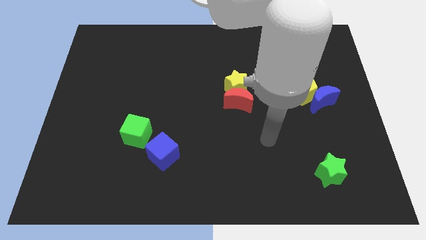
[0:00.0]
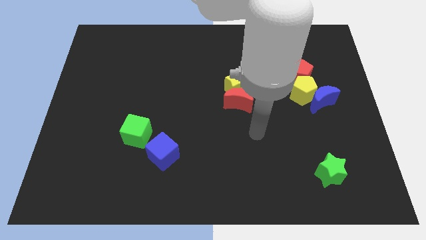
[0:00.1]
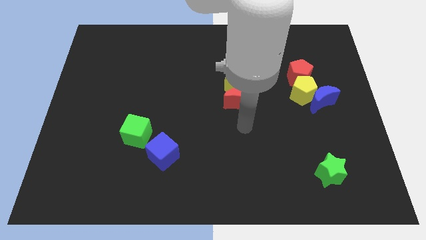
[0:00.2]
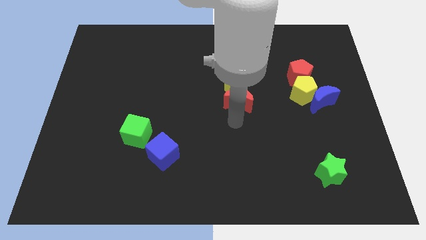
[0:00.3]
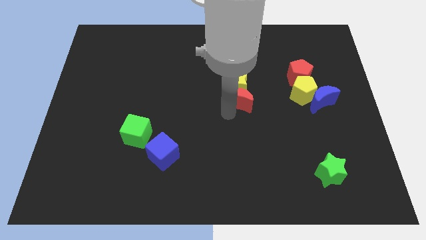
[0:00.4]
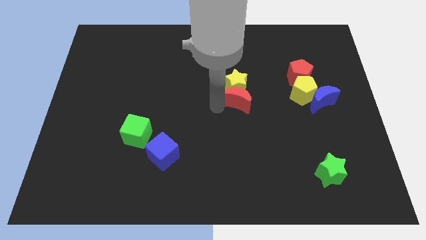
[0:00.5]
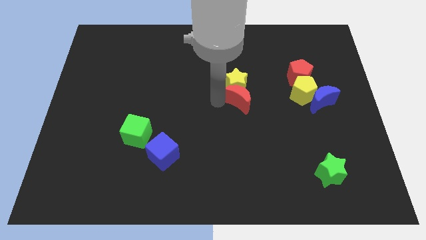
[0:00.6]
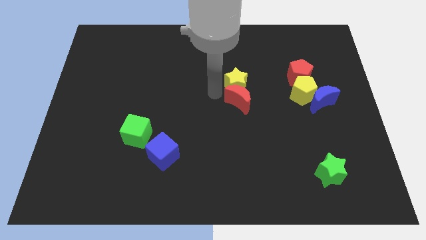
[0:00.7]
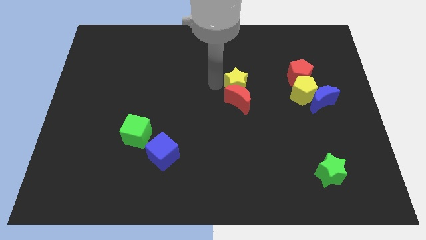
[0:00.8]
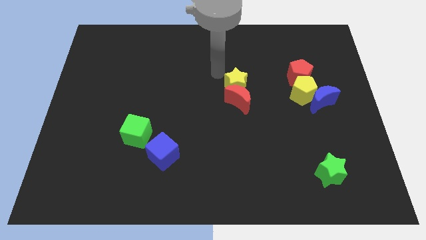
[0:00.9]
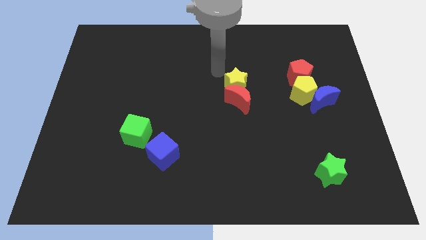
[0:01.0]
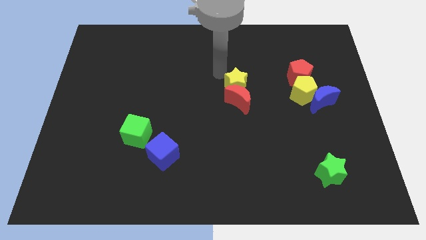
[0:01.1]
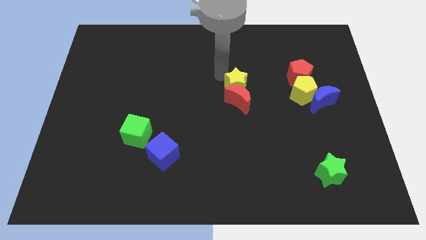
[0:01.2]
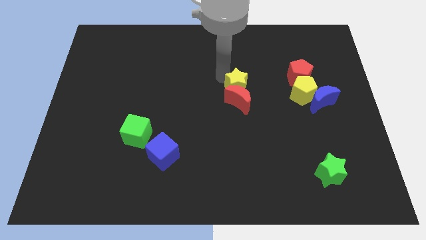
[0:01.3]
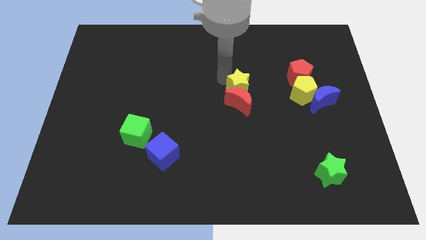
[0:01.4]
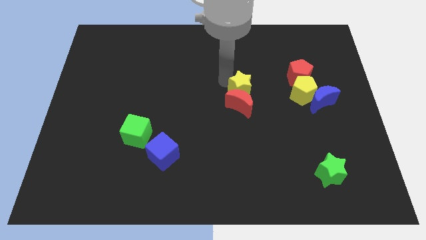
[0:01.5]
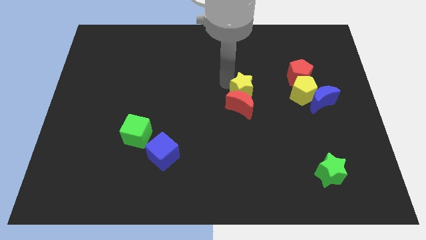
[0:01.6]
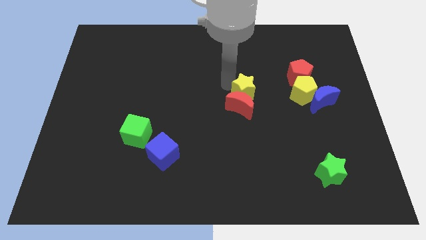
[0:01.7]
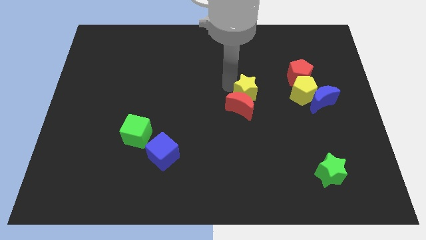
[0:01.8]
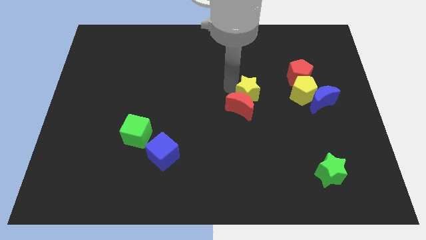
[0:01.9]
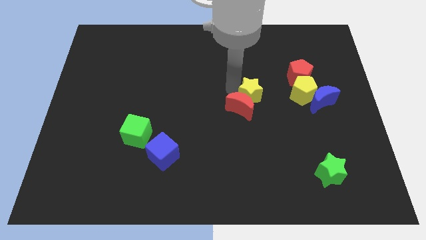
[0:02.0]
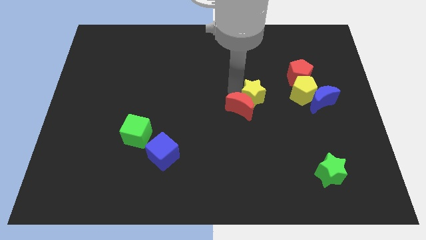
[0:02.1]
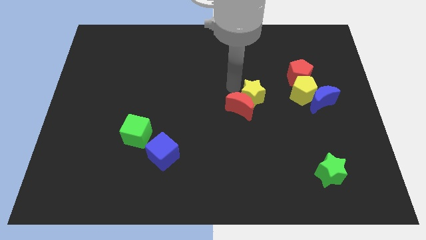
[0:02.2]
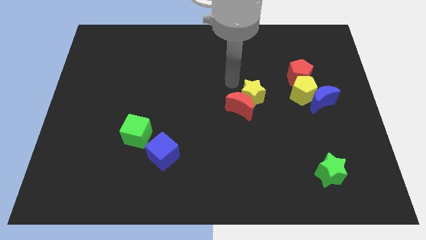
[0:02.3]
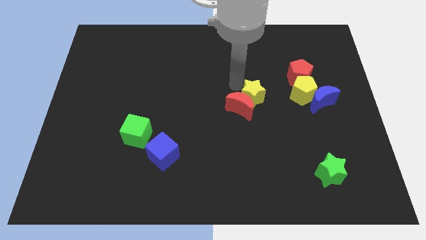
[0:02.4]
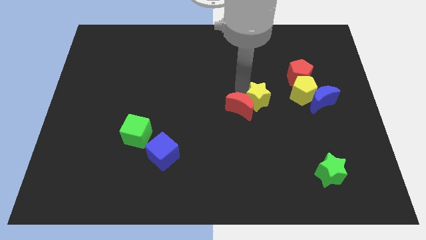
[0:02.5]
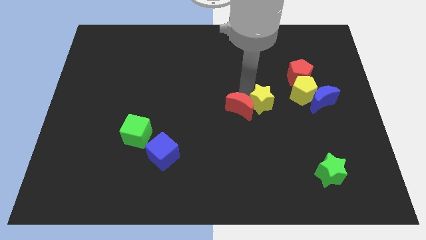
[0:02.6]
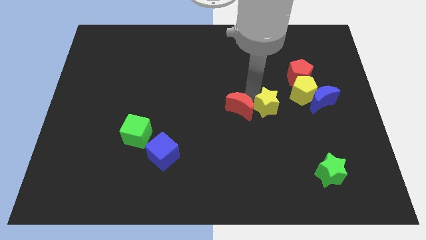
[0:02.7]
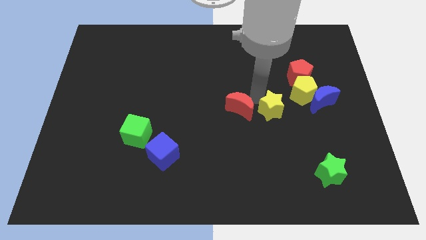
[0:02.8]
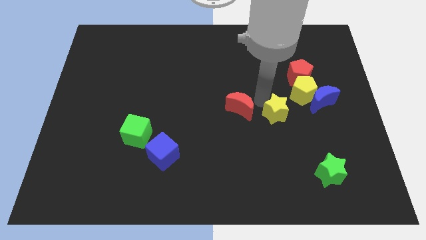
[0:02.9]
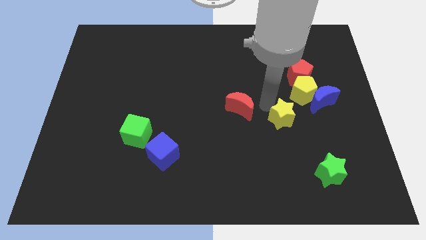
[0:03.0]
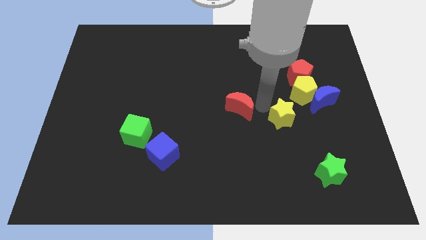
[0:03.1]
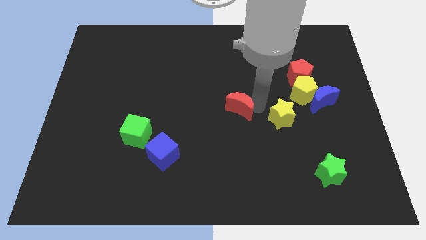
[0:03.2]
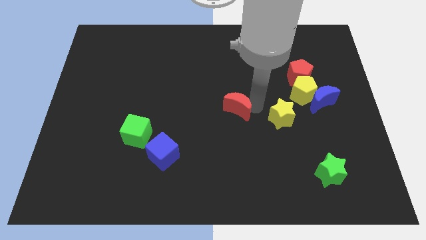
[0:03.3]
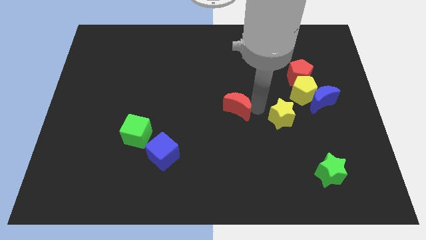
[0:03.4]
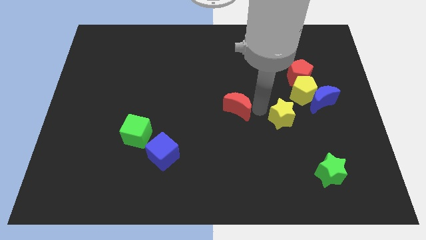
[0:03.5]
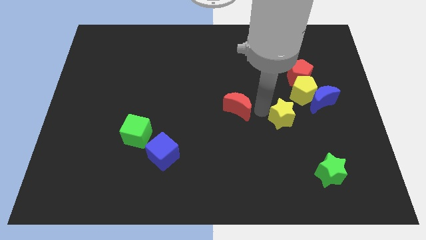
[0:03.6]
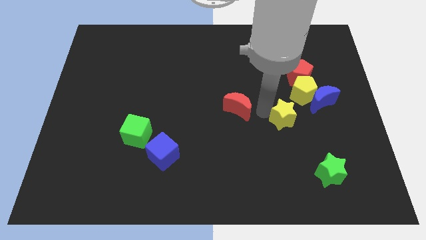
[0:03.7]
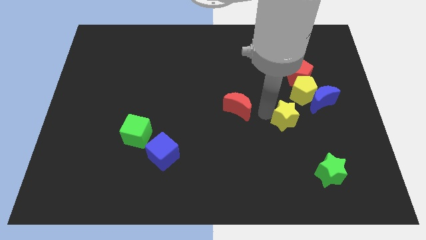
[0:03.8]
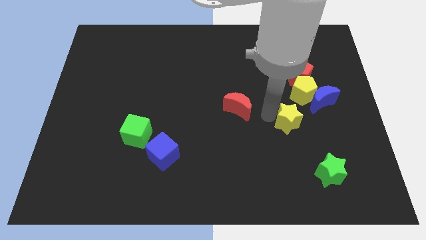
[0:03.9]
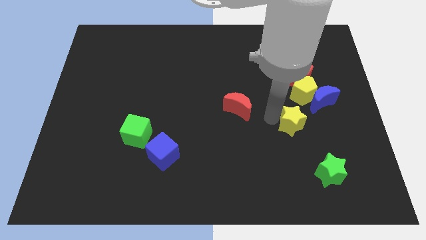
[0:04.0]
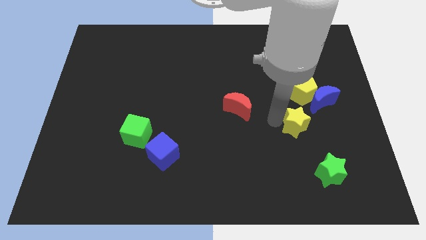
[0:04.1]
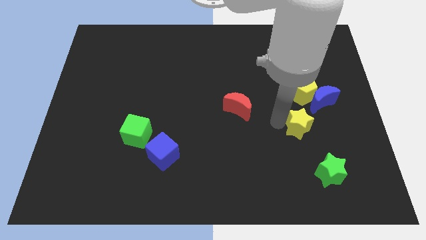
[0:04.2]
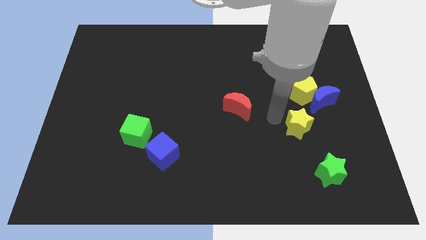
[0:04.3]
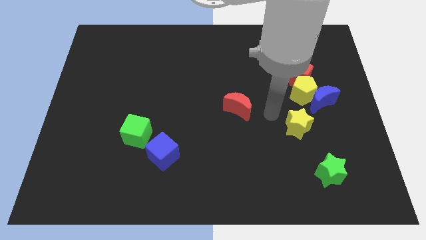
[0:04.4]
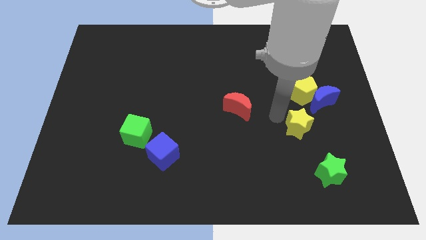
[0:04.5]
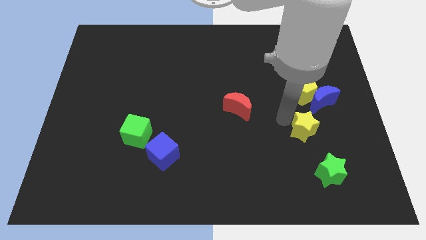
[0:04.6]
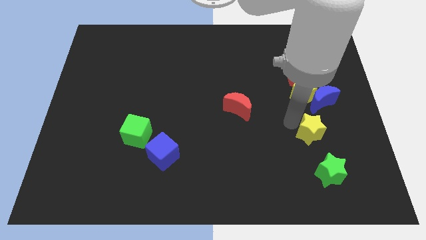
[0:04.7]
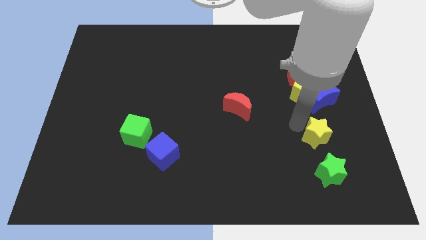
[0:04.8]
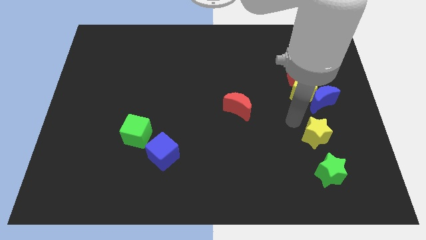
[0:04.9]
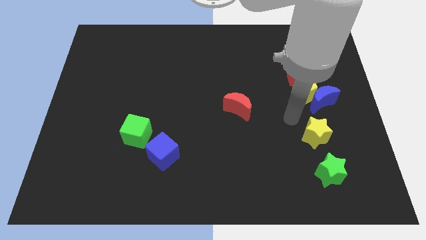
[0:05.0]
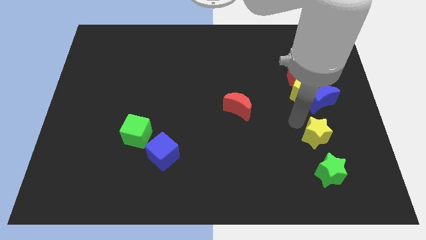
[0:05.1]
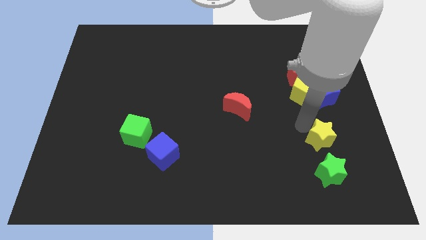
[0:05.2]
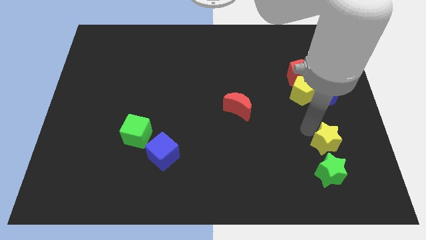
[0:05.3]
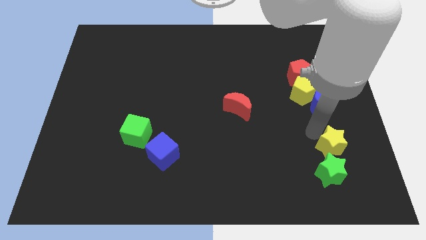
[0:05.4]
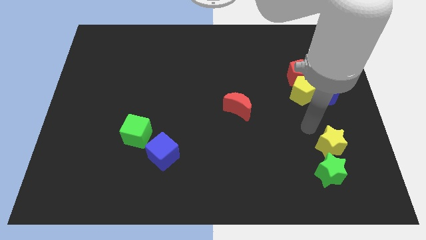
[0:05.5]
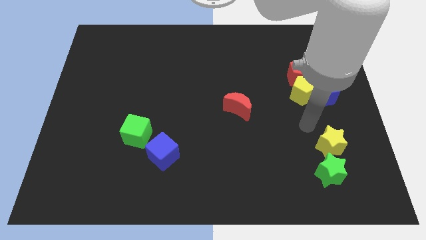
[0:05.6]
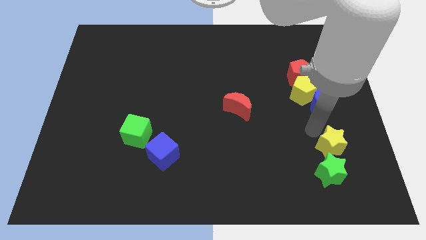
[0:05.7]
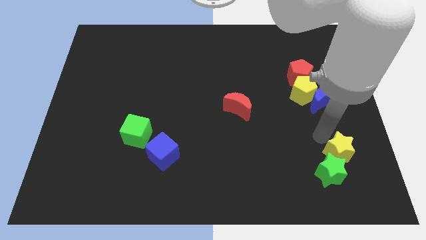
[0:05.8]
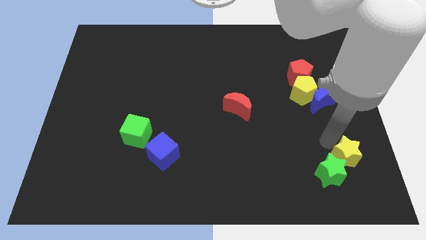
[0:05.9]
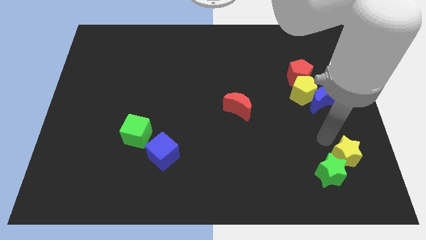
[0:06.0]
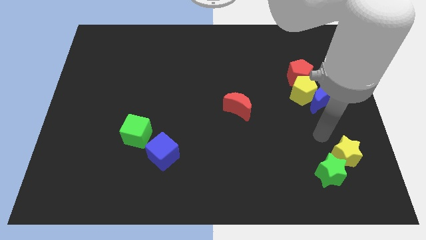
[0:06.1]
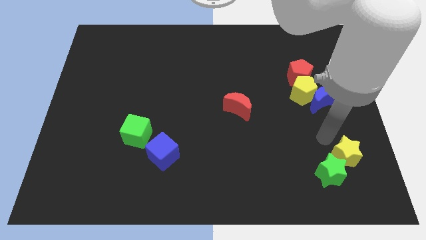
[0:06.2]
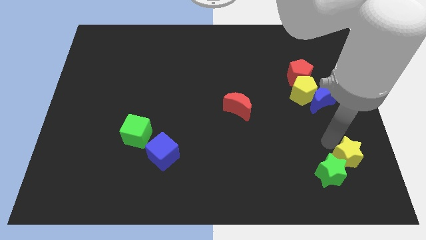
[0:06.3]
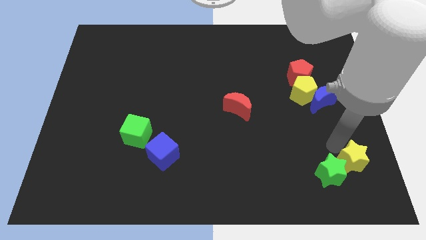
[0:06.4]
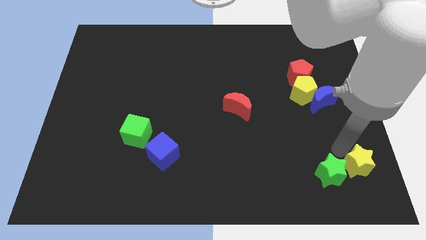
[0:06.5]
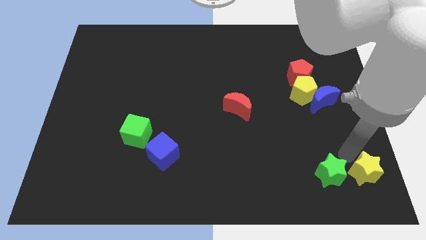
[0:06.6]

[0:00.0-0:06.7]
slide the yellow star to the lower right corner

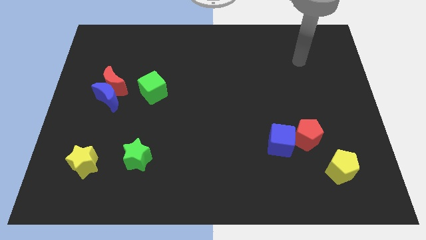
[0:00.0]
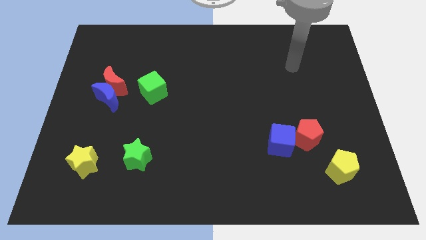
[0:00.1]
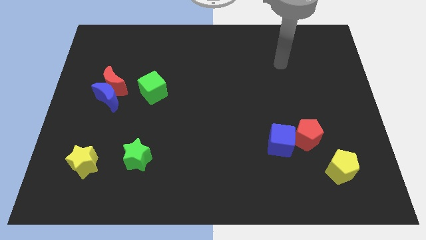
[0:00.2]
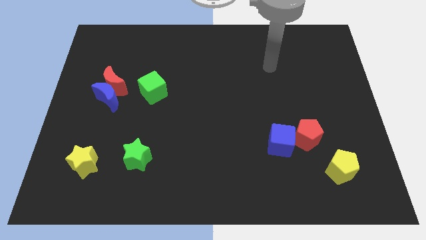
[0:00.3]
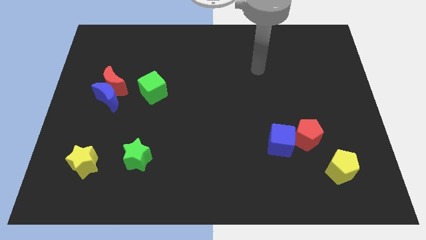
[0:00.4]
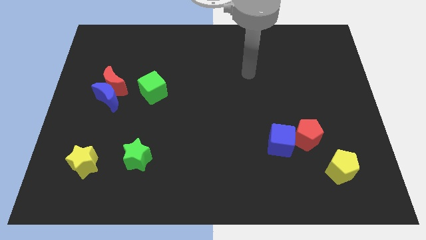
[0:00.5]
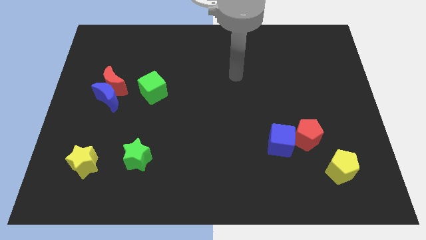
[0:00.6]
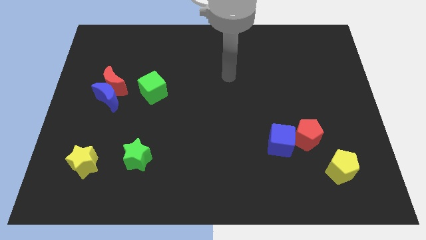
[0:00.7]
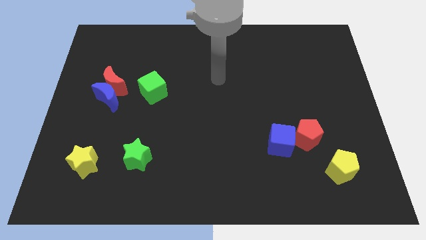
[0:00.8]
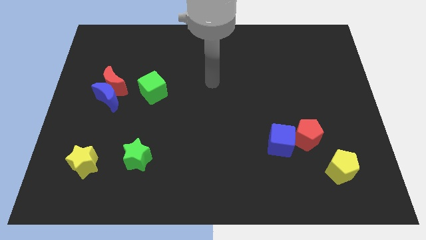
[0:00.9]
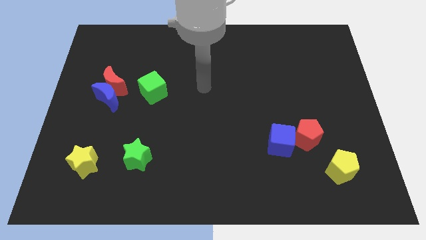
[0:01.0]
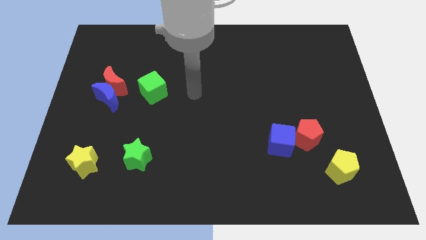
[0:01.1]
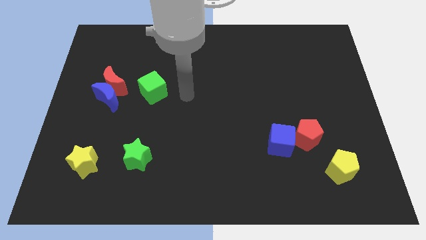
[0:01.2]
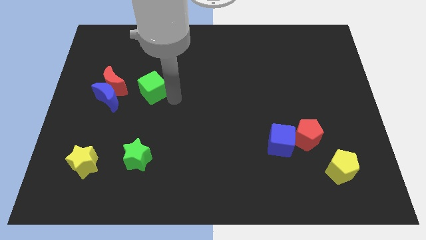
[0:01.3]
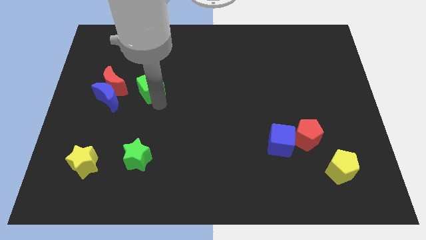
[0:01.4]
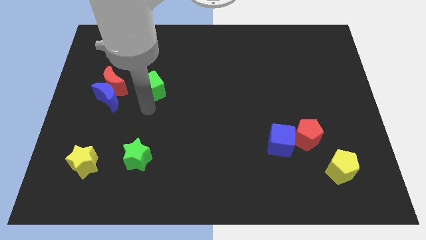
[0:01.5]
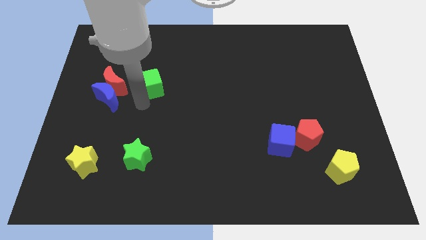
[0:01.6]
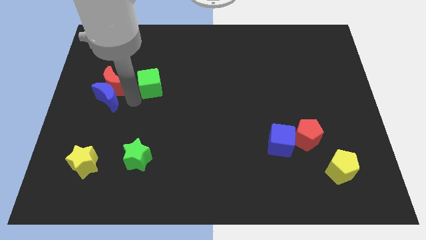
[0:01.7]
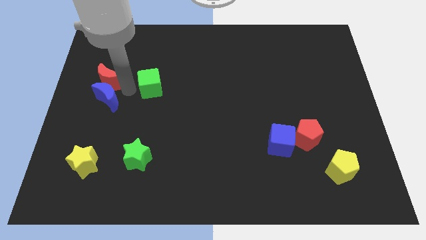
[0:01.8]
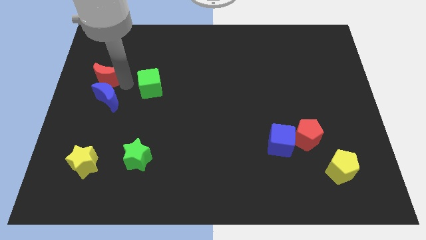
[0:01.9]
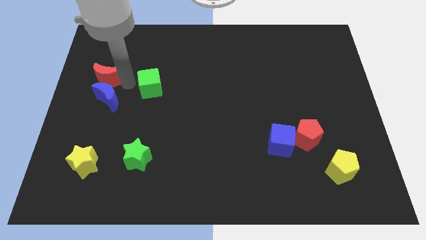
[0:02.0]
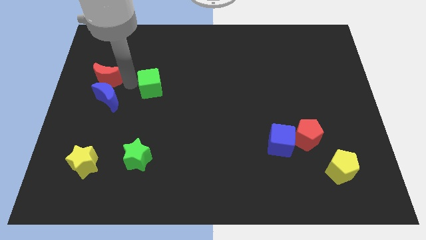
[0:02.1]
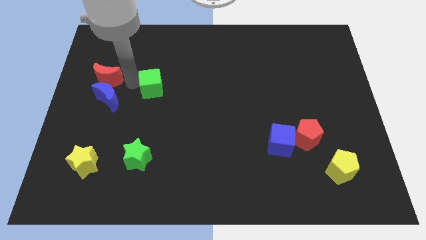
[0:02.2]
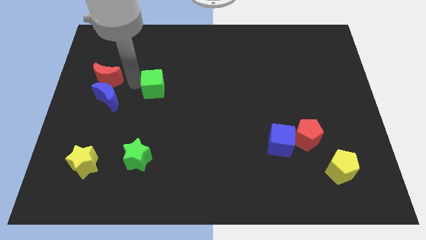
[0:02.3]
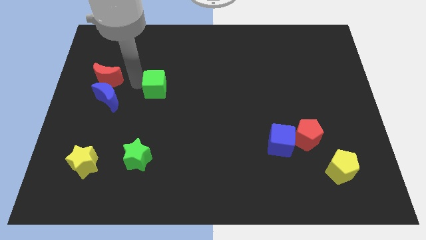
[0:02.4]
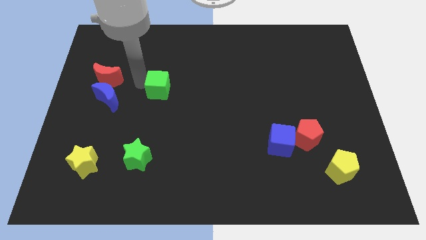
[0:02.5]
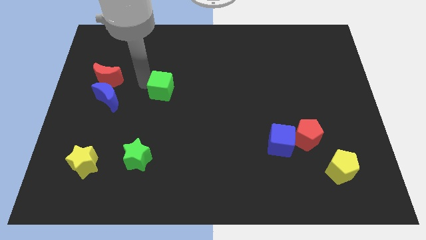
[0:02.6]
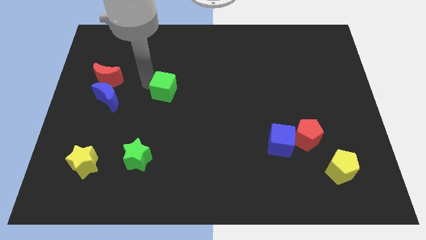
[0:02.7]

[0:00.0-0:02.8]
slide the green cube to the center of the board
